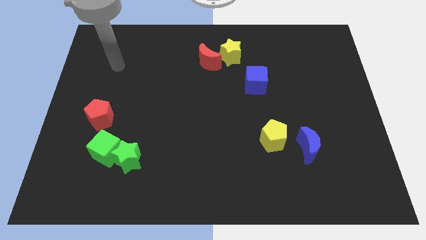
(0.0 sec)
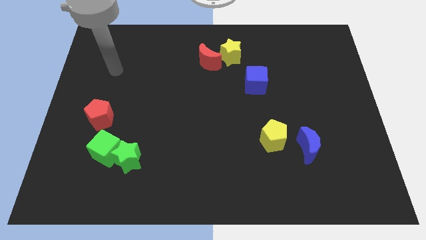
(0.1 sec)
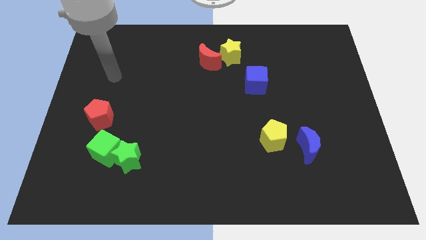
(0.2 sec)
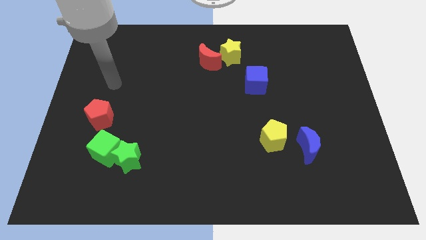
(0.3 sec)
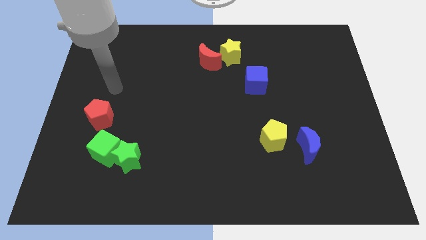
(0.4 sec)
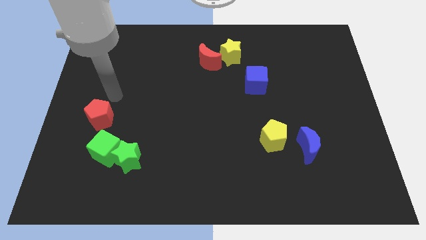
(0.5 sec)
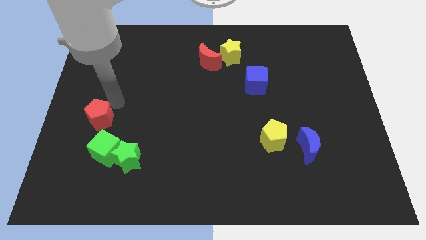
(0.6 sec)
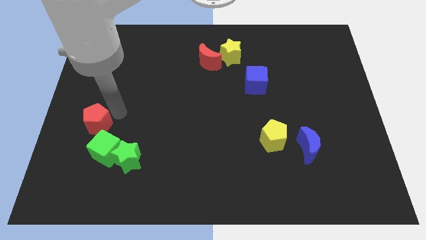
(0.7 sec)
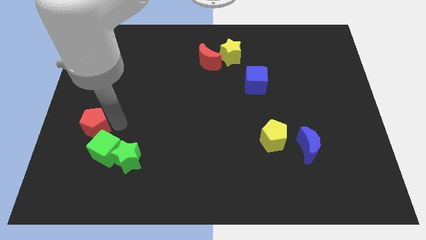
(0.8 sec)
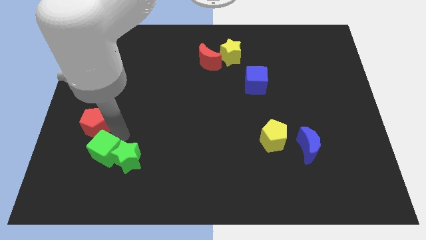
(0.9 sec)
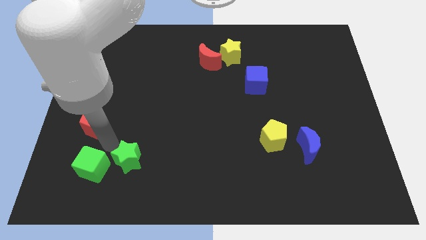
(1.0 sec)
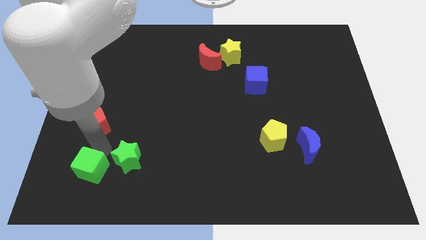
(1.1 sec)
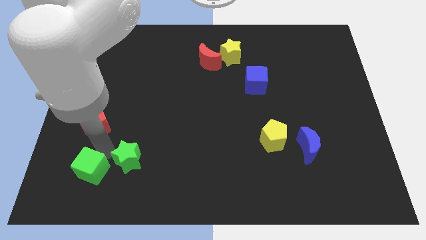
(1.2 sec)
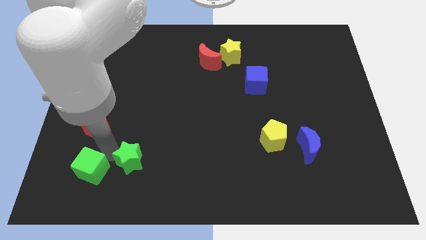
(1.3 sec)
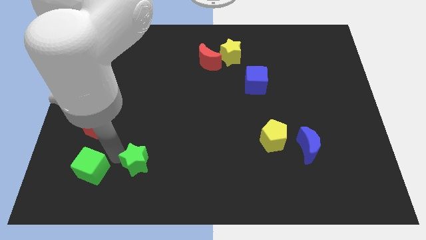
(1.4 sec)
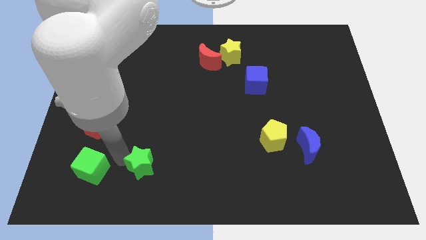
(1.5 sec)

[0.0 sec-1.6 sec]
pull the green star apart from the green cube

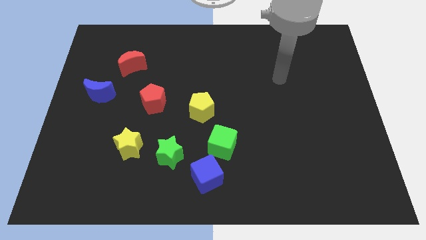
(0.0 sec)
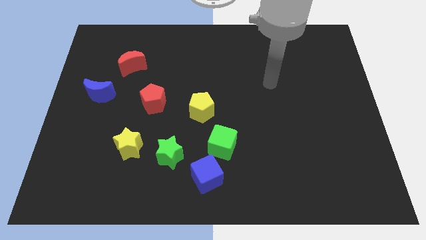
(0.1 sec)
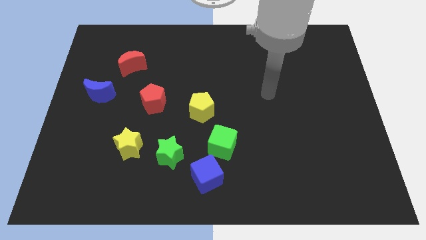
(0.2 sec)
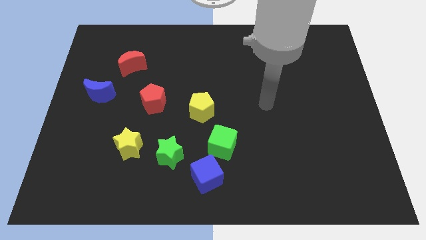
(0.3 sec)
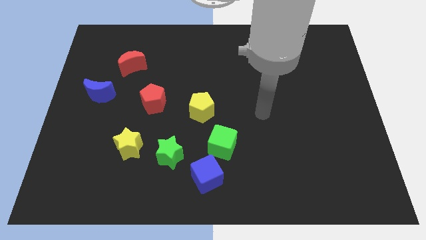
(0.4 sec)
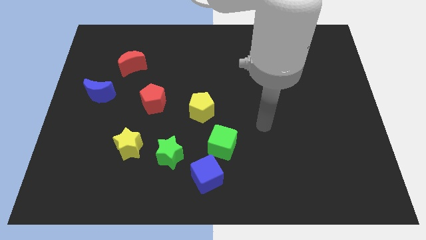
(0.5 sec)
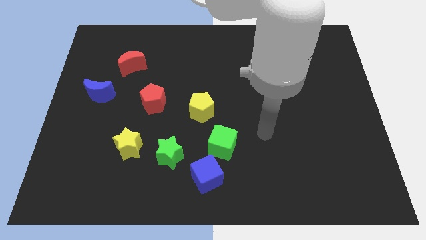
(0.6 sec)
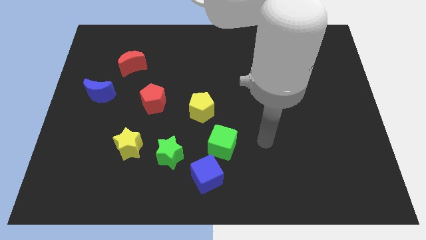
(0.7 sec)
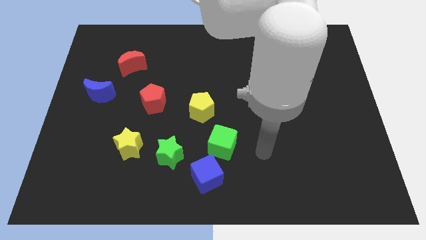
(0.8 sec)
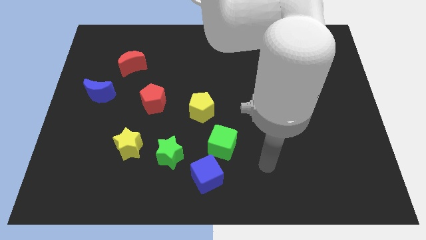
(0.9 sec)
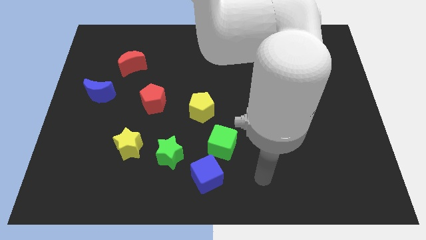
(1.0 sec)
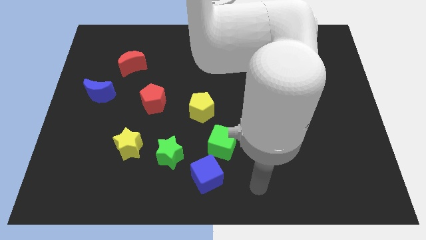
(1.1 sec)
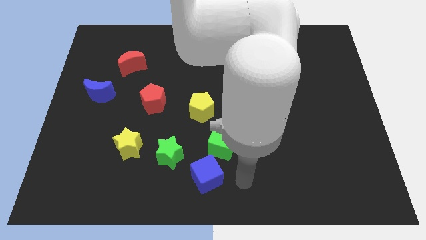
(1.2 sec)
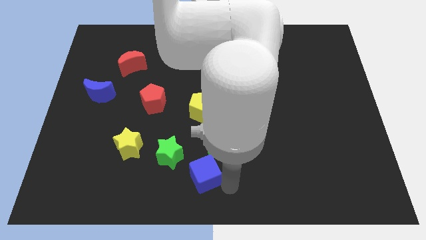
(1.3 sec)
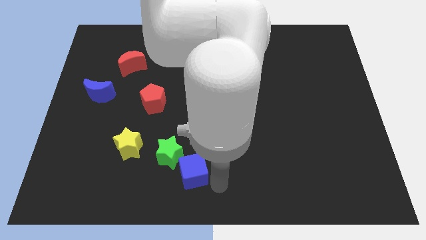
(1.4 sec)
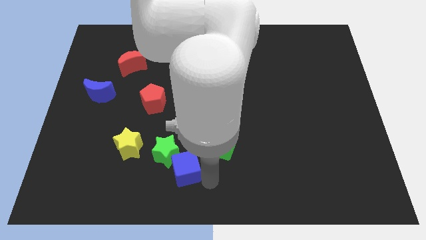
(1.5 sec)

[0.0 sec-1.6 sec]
separate the green cube from the blue cube

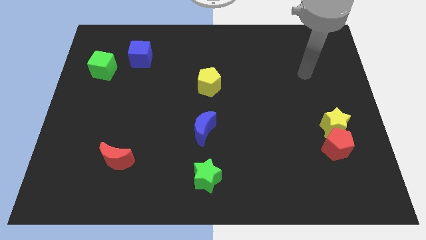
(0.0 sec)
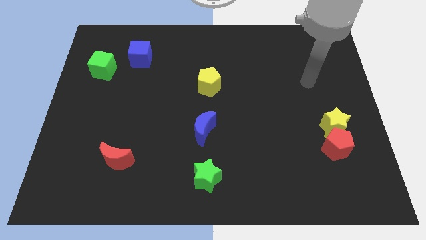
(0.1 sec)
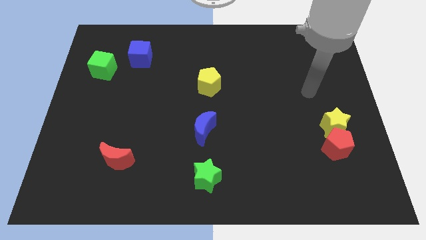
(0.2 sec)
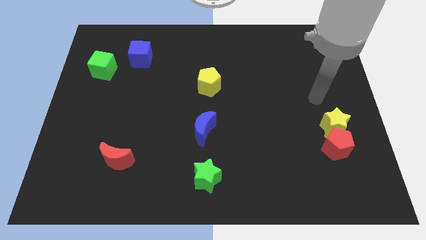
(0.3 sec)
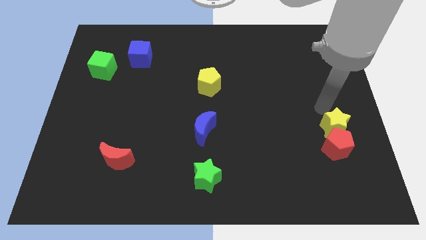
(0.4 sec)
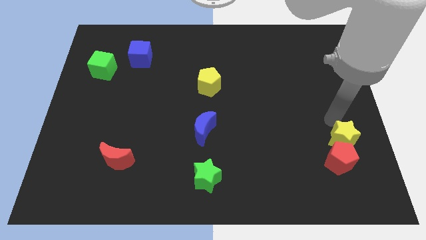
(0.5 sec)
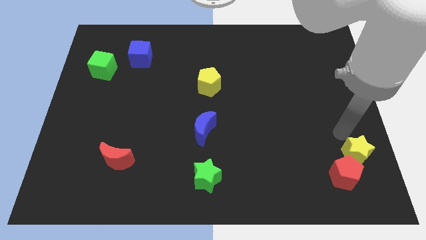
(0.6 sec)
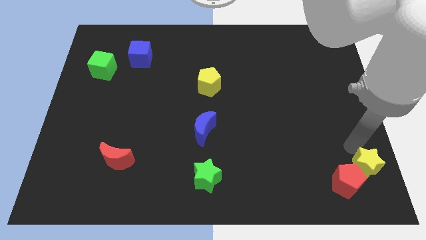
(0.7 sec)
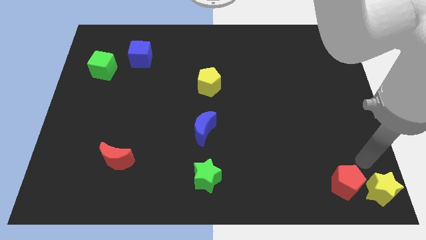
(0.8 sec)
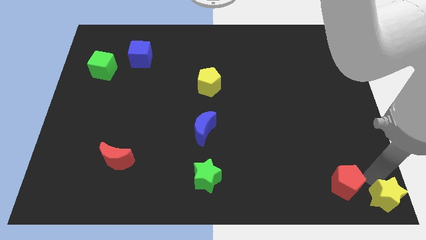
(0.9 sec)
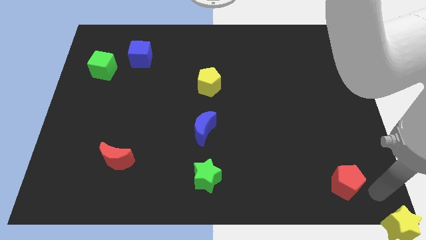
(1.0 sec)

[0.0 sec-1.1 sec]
separate the red pentagon from the yellow star

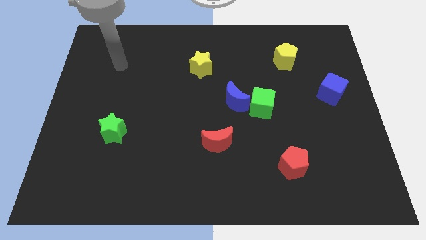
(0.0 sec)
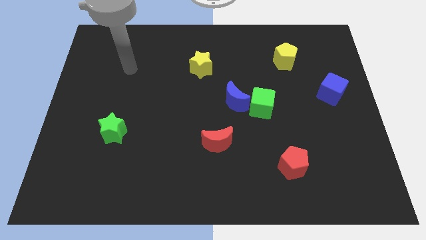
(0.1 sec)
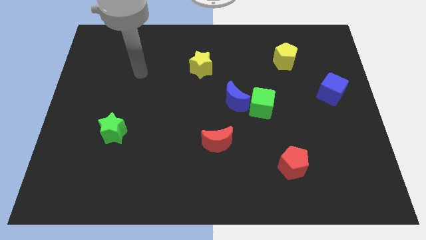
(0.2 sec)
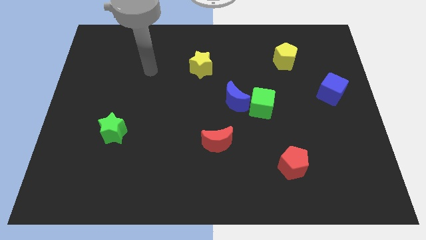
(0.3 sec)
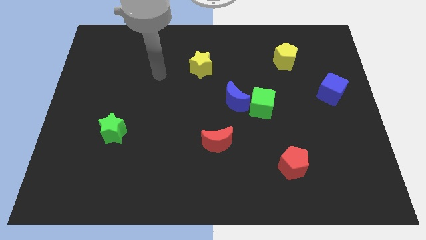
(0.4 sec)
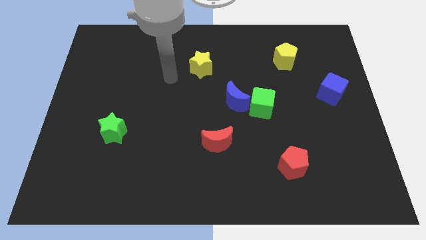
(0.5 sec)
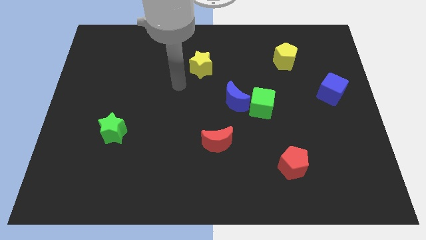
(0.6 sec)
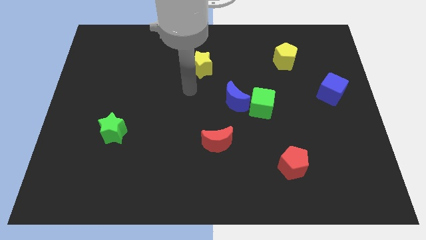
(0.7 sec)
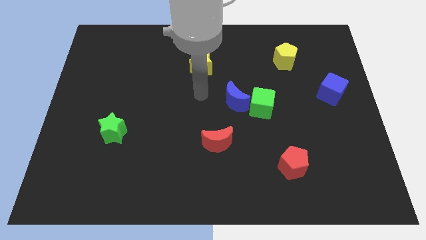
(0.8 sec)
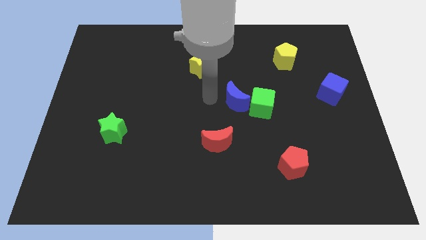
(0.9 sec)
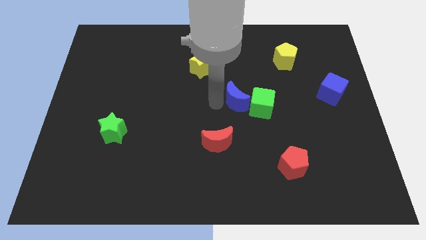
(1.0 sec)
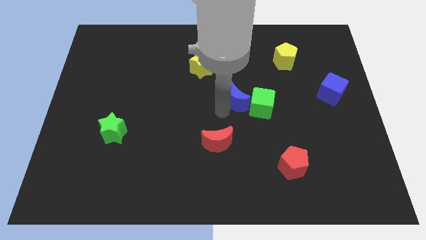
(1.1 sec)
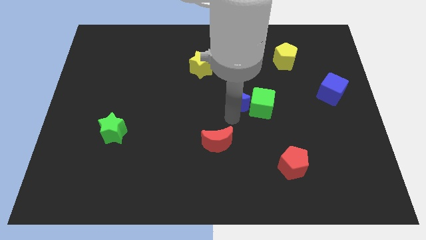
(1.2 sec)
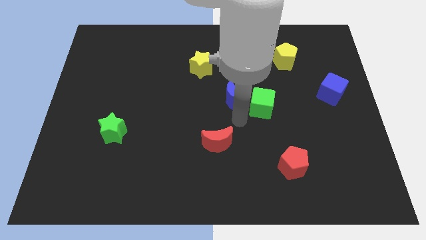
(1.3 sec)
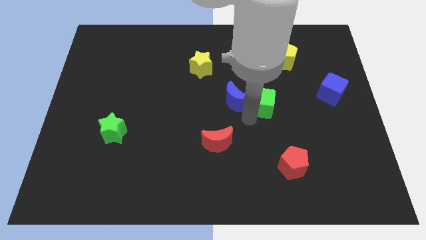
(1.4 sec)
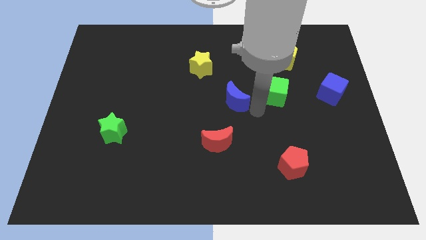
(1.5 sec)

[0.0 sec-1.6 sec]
move the blue moon away from the green cube

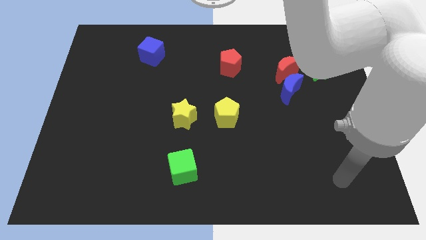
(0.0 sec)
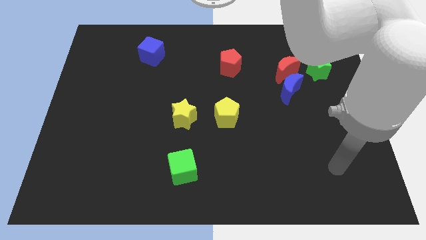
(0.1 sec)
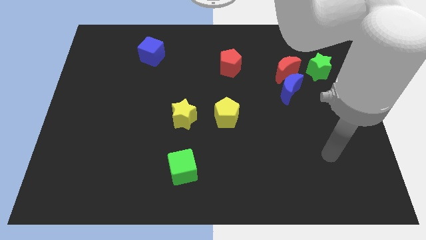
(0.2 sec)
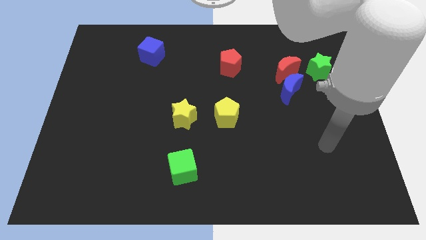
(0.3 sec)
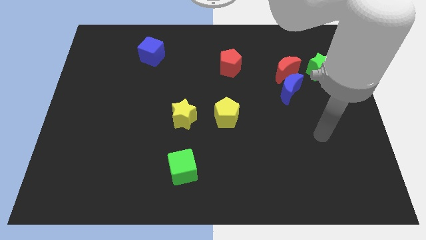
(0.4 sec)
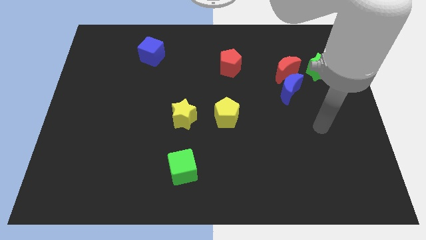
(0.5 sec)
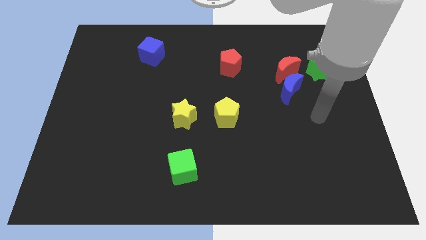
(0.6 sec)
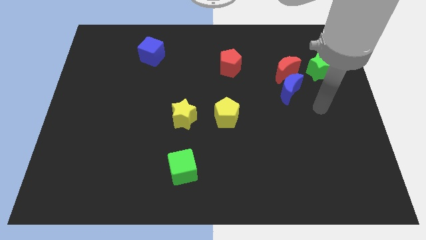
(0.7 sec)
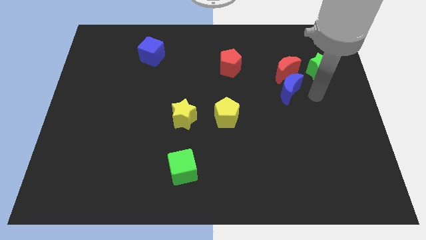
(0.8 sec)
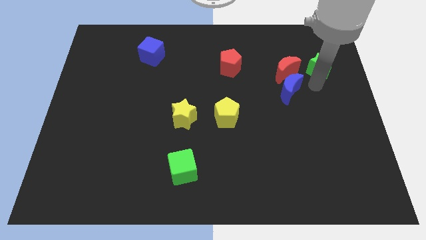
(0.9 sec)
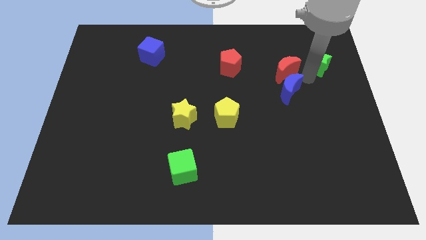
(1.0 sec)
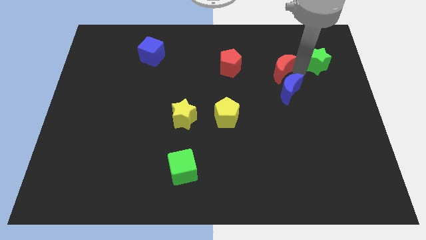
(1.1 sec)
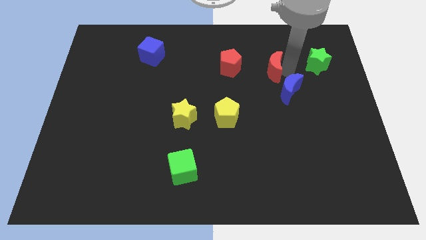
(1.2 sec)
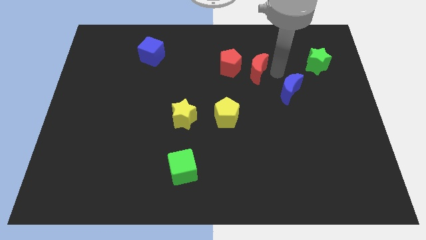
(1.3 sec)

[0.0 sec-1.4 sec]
separate the blue moon from the red moon

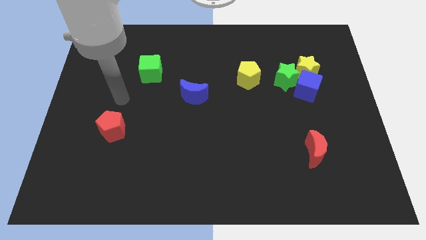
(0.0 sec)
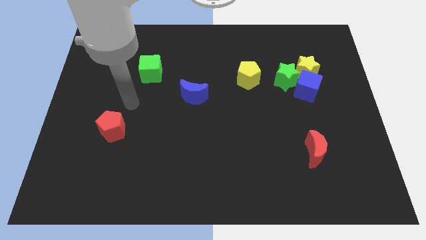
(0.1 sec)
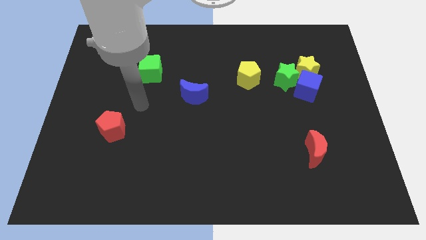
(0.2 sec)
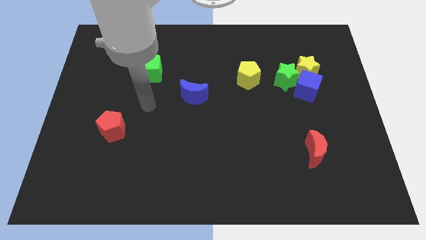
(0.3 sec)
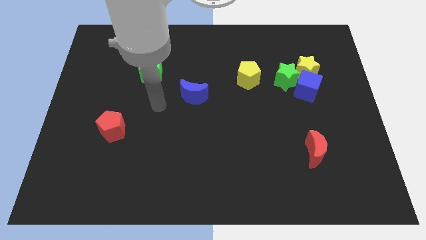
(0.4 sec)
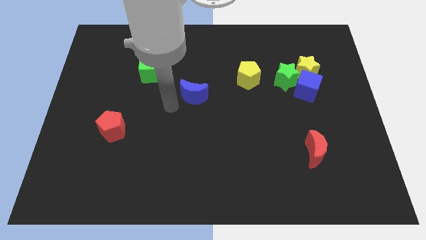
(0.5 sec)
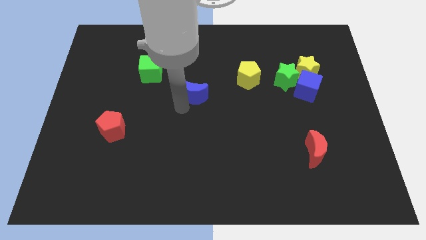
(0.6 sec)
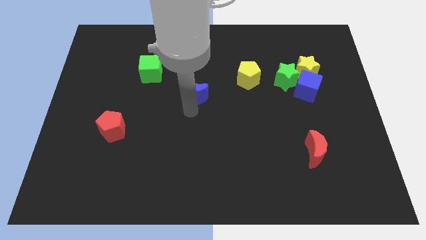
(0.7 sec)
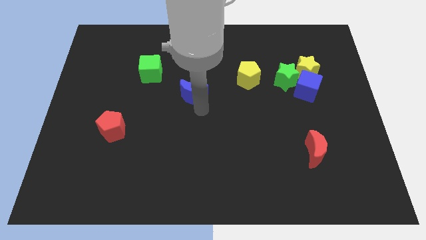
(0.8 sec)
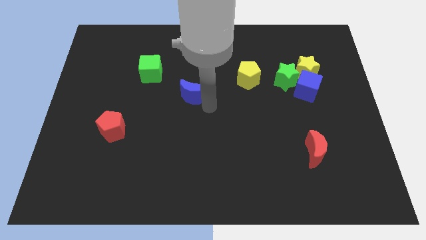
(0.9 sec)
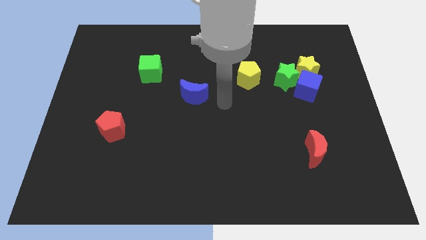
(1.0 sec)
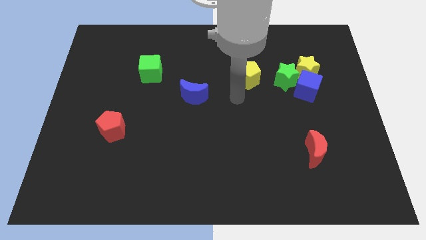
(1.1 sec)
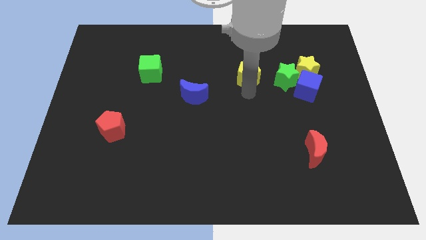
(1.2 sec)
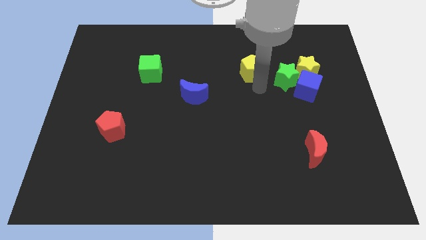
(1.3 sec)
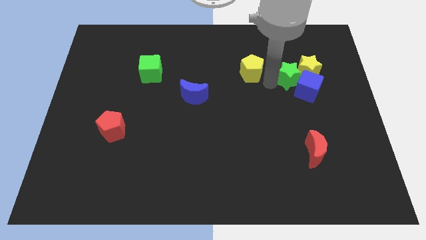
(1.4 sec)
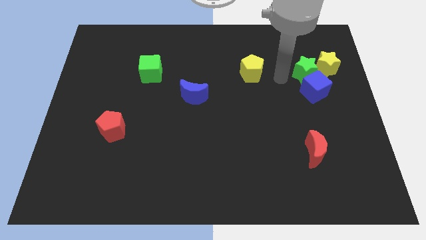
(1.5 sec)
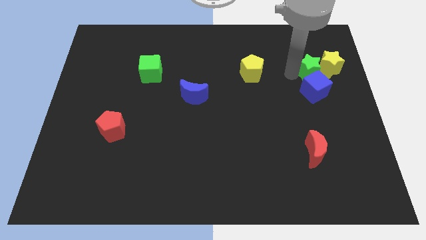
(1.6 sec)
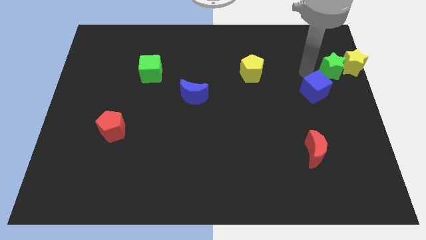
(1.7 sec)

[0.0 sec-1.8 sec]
move the blue cube away from the yellow star and green star

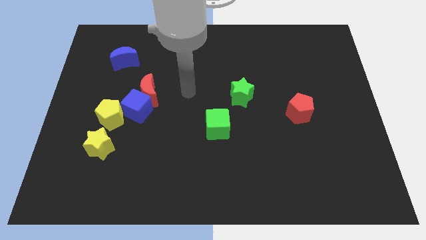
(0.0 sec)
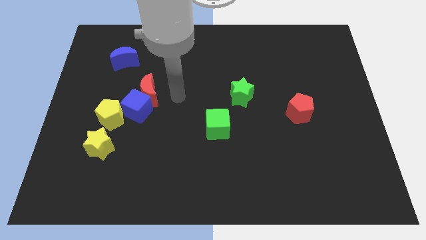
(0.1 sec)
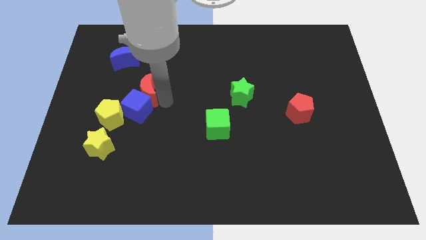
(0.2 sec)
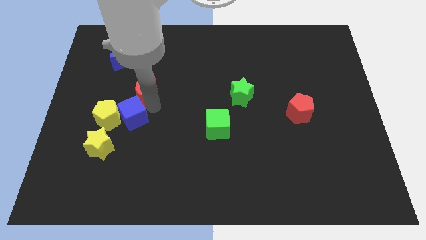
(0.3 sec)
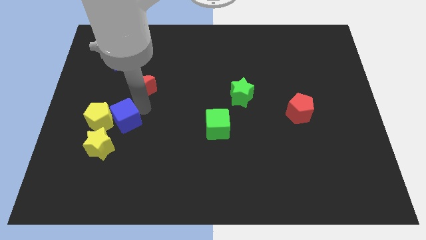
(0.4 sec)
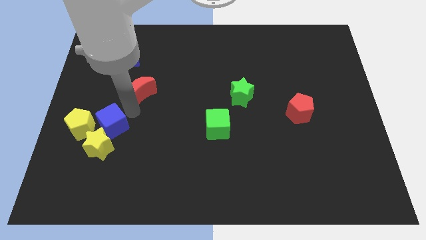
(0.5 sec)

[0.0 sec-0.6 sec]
separate the red moon from the blue cube
